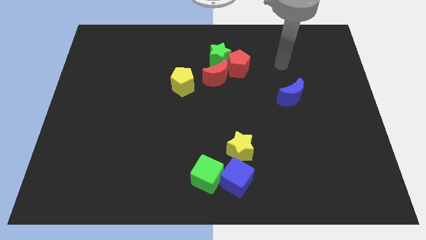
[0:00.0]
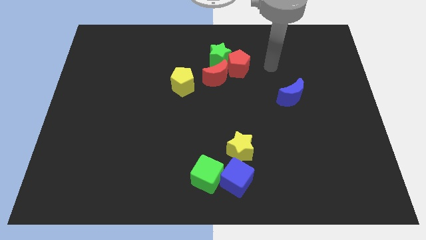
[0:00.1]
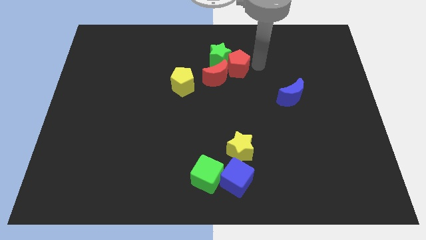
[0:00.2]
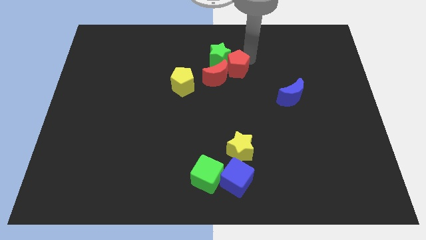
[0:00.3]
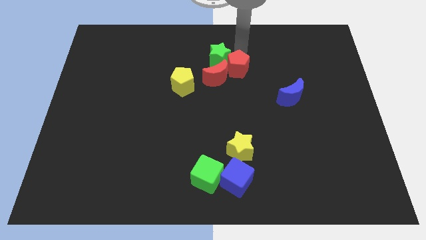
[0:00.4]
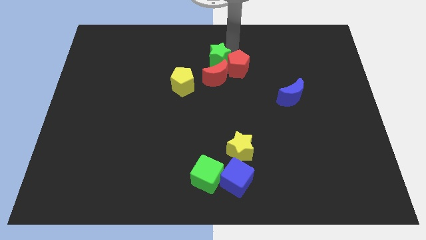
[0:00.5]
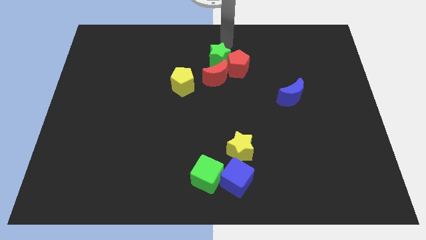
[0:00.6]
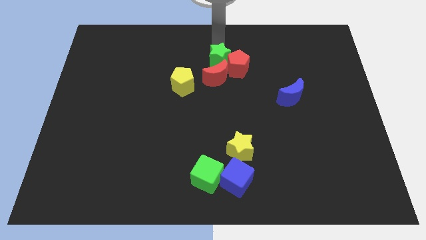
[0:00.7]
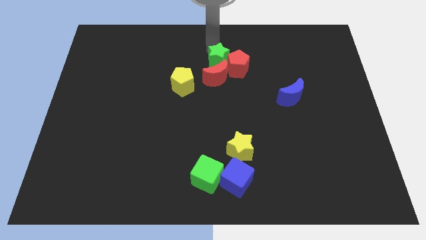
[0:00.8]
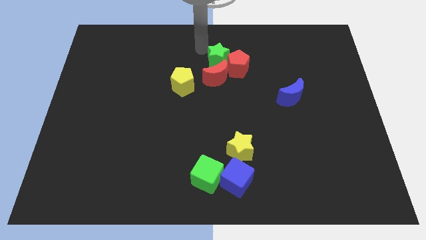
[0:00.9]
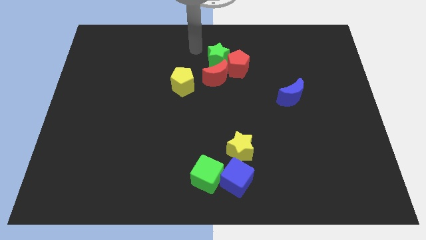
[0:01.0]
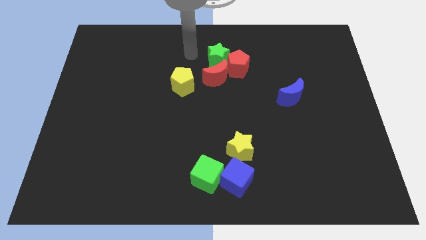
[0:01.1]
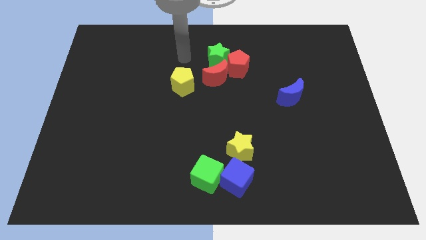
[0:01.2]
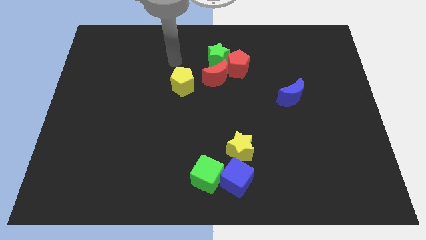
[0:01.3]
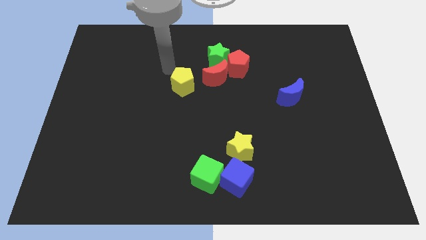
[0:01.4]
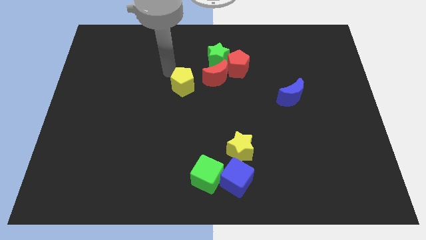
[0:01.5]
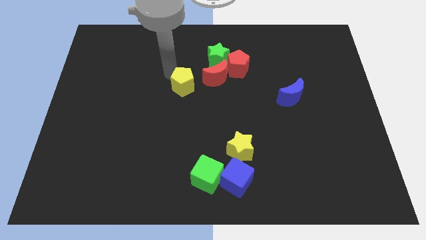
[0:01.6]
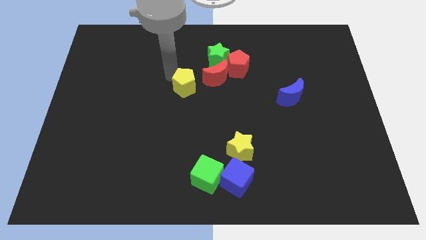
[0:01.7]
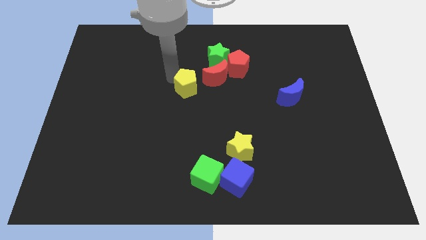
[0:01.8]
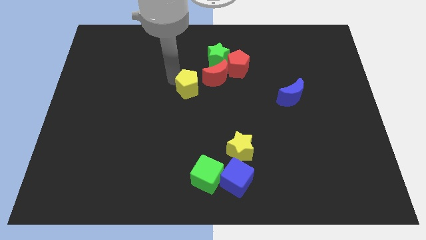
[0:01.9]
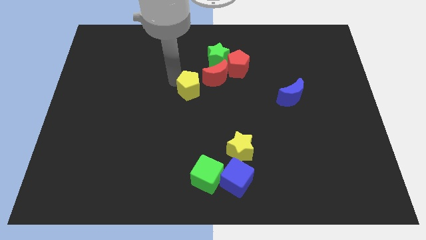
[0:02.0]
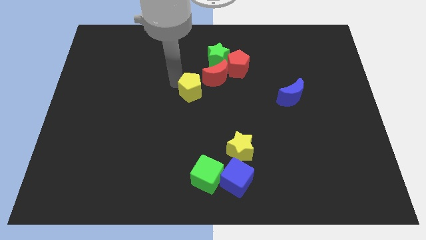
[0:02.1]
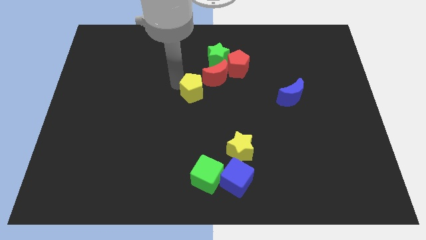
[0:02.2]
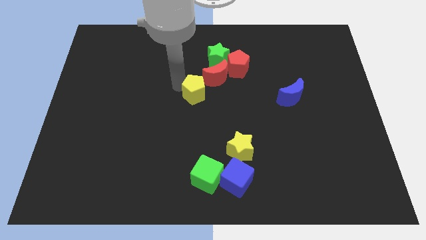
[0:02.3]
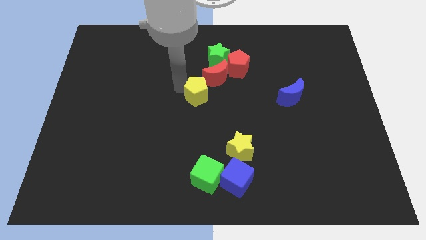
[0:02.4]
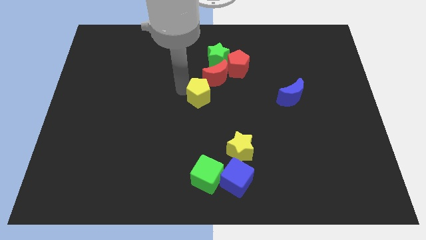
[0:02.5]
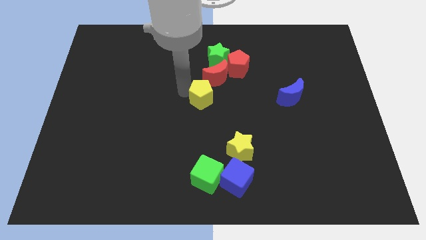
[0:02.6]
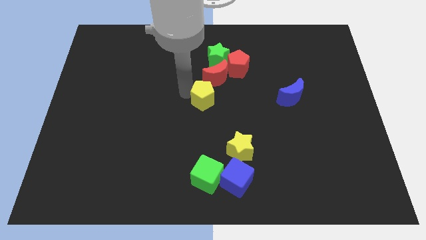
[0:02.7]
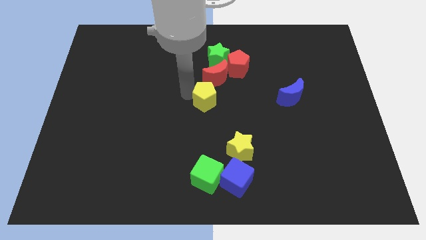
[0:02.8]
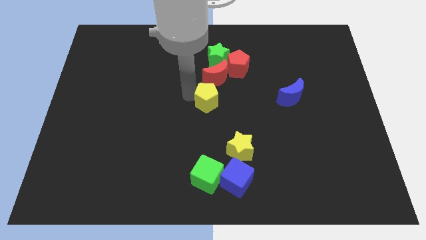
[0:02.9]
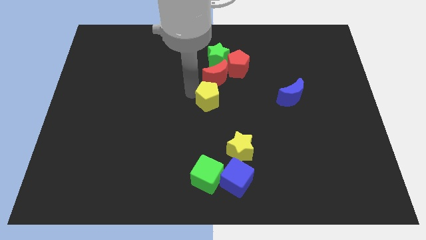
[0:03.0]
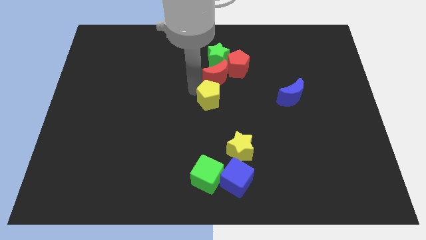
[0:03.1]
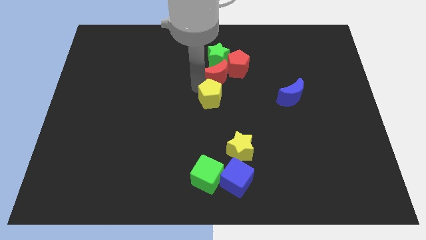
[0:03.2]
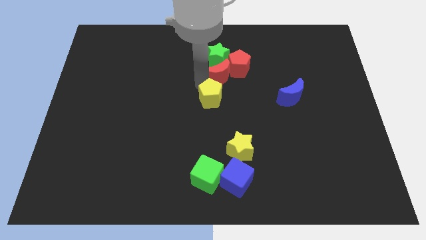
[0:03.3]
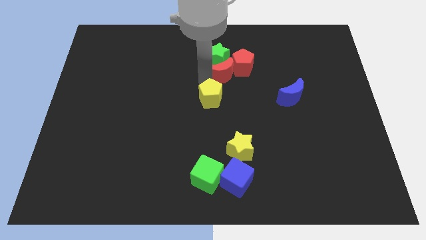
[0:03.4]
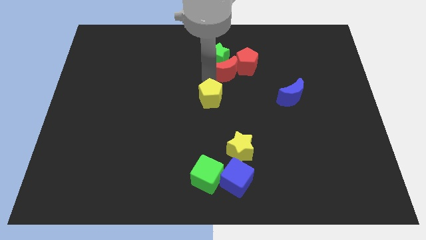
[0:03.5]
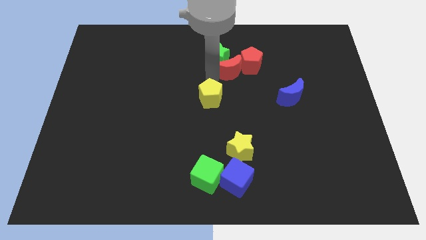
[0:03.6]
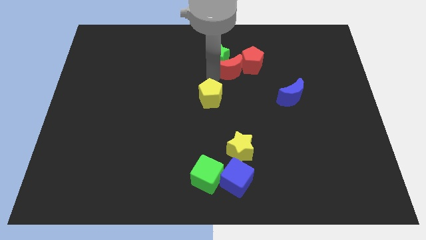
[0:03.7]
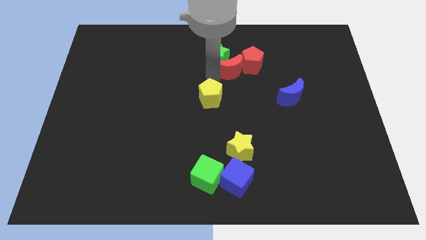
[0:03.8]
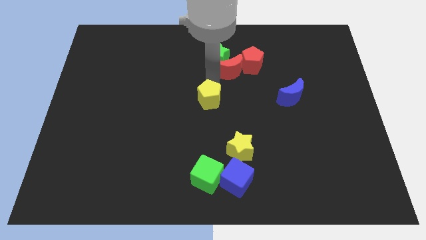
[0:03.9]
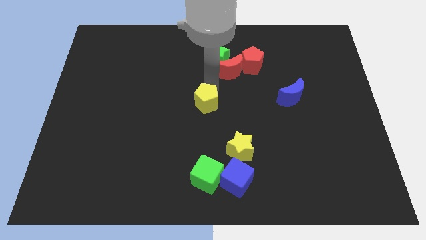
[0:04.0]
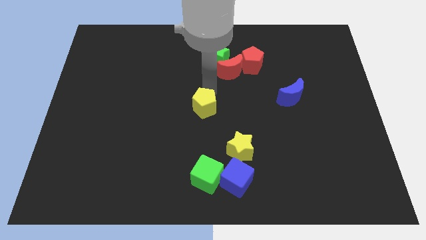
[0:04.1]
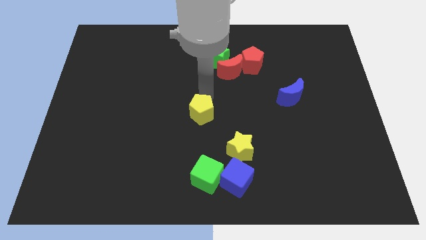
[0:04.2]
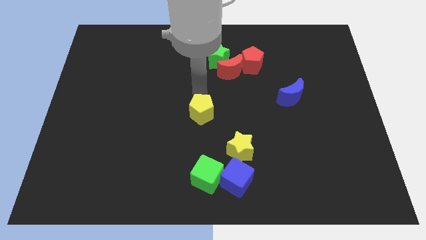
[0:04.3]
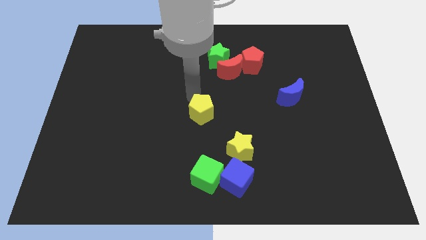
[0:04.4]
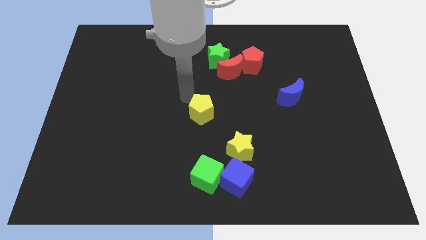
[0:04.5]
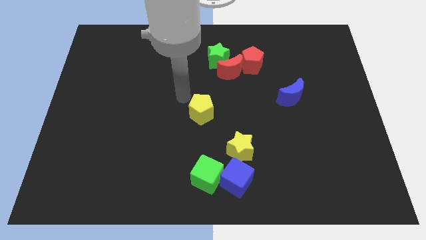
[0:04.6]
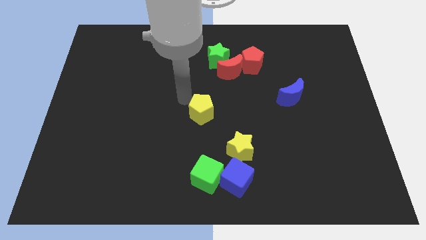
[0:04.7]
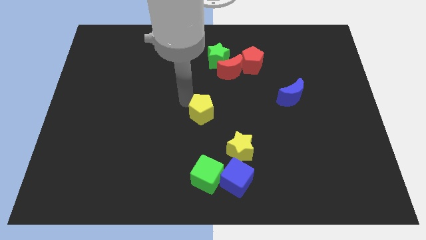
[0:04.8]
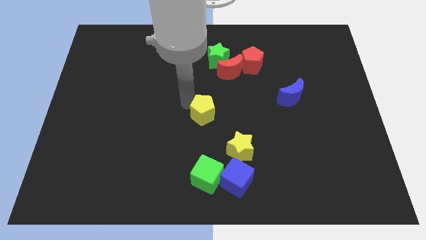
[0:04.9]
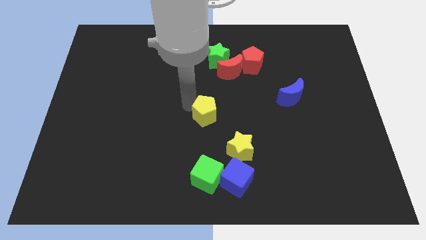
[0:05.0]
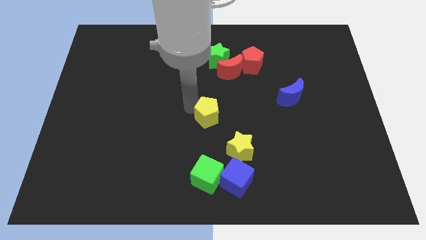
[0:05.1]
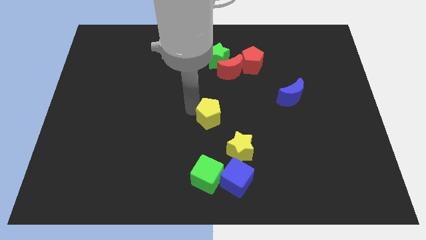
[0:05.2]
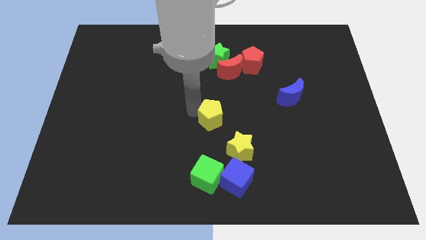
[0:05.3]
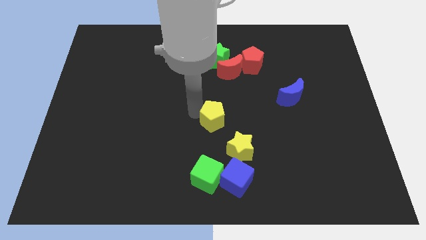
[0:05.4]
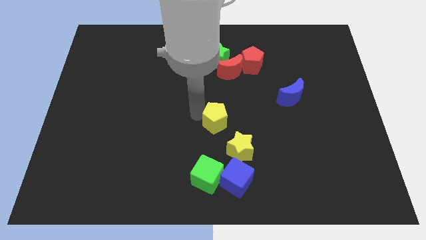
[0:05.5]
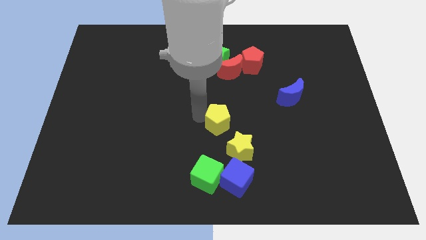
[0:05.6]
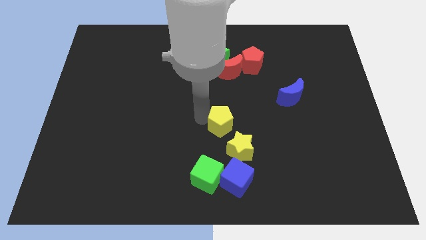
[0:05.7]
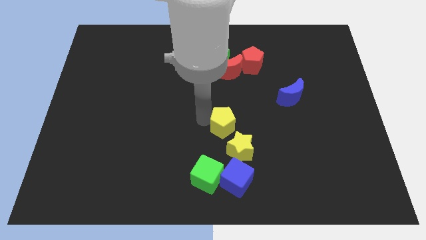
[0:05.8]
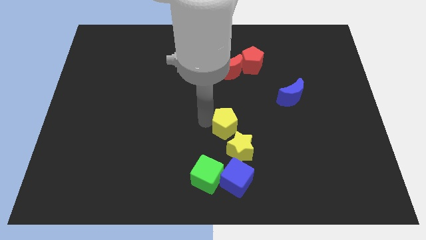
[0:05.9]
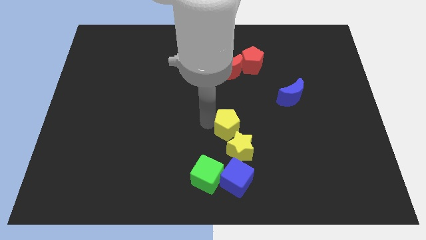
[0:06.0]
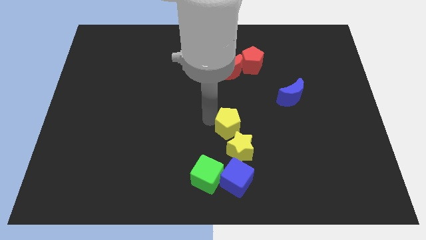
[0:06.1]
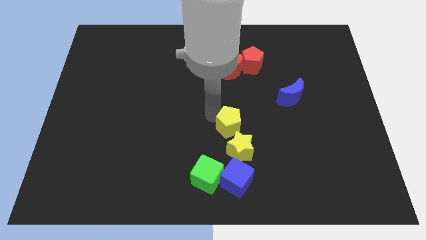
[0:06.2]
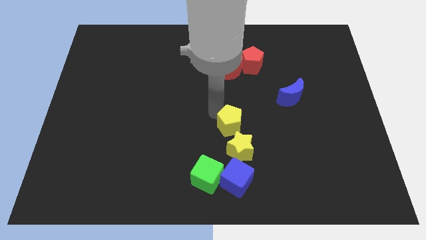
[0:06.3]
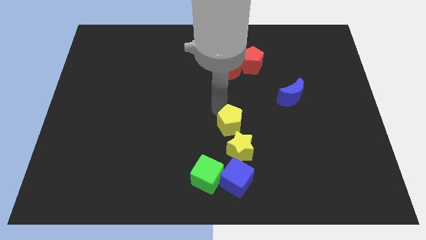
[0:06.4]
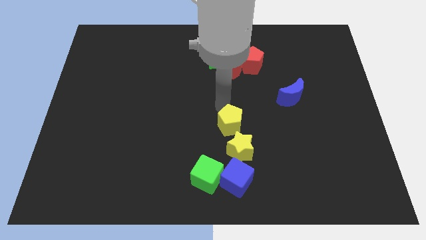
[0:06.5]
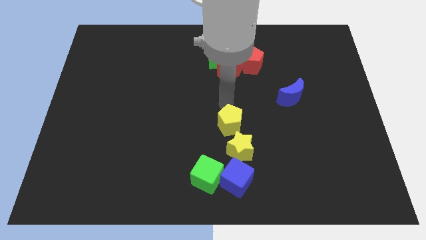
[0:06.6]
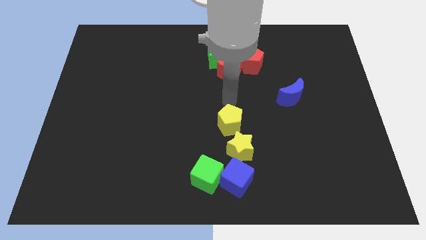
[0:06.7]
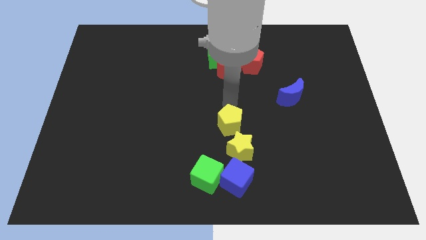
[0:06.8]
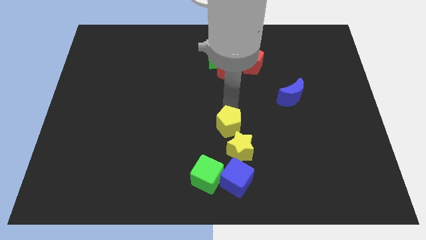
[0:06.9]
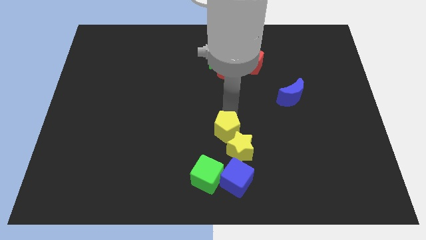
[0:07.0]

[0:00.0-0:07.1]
push the yellow pentagon close to the yellow star

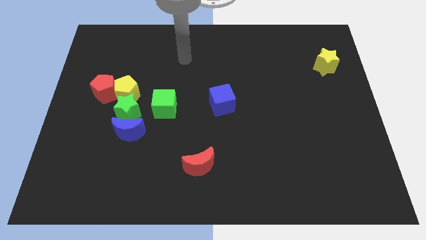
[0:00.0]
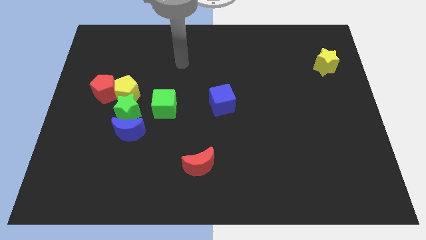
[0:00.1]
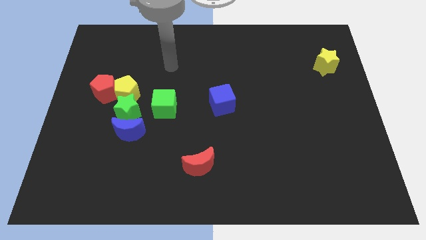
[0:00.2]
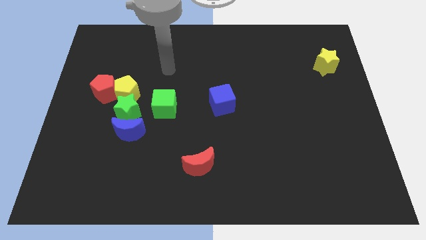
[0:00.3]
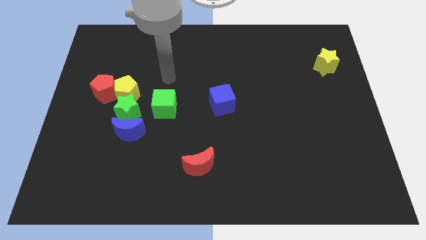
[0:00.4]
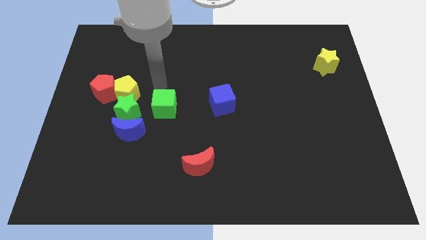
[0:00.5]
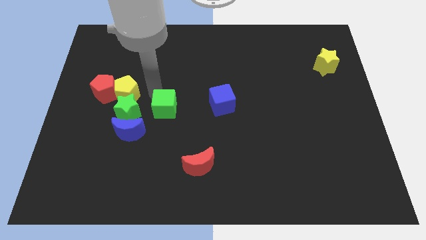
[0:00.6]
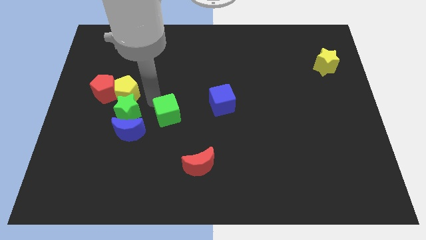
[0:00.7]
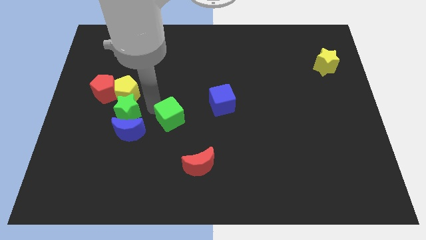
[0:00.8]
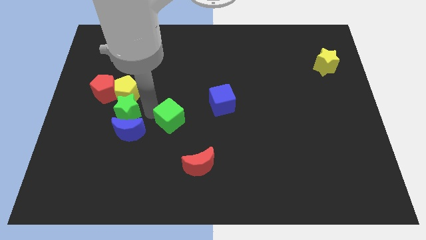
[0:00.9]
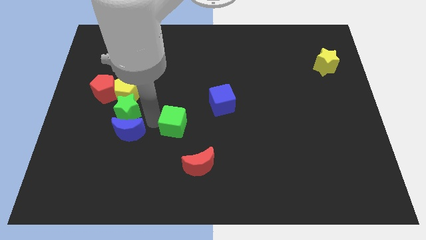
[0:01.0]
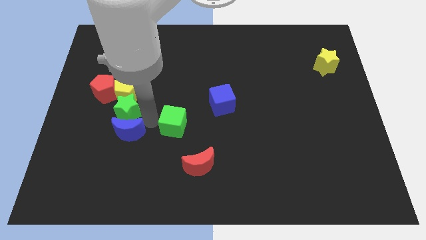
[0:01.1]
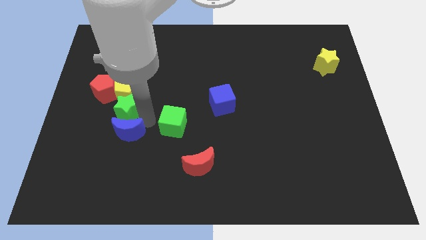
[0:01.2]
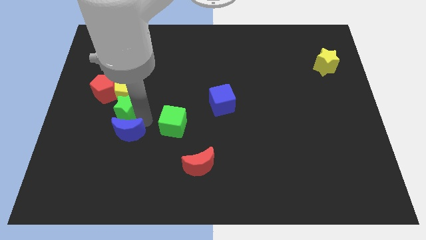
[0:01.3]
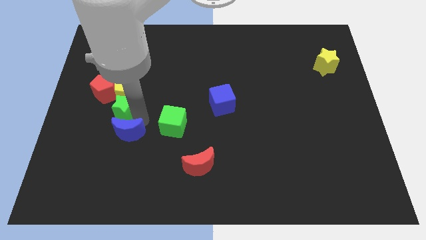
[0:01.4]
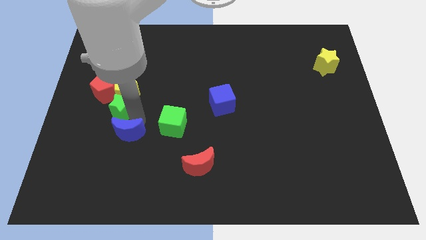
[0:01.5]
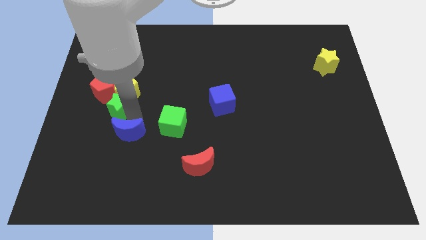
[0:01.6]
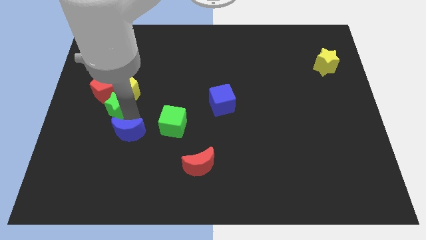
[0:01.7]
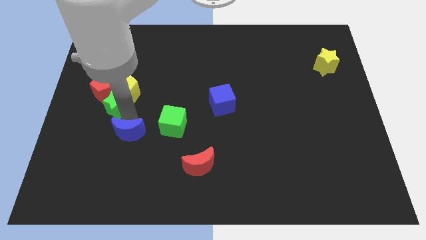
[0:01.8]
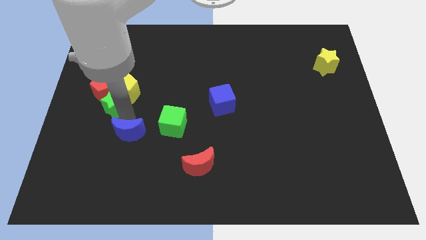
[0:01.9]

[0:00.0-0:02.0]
move the green star to the red pentagon
